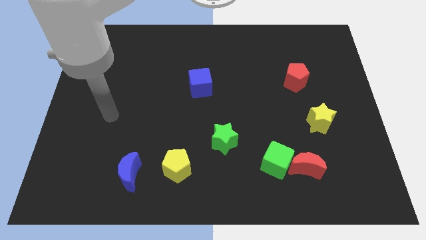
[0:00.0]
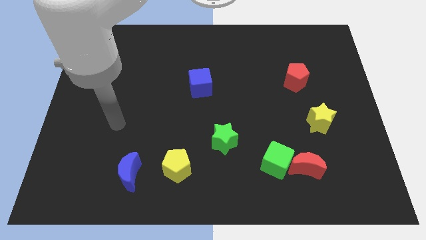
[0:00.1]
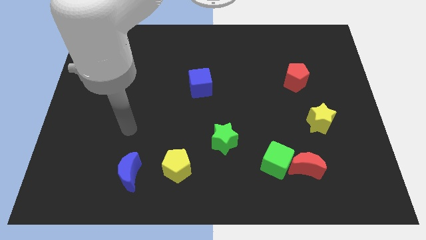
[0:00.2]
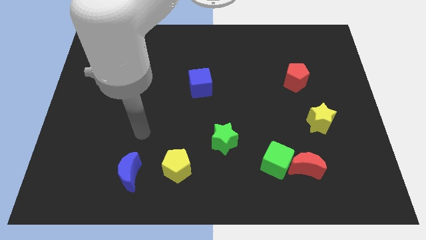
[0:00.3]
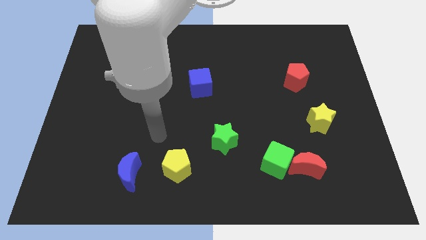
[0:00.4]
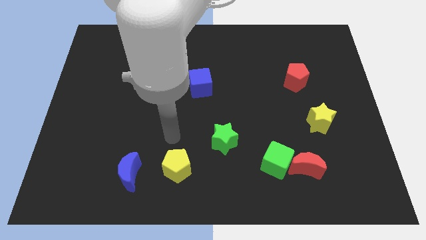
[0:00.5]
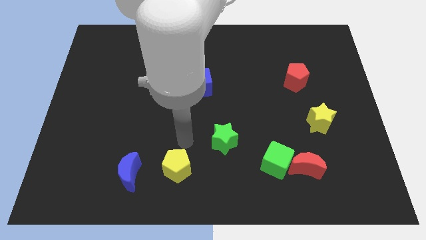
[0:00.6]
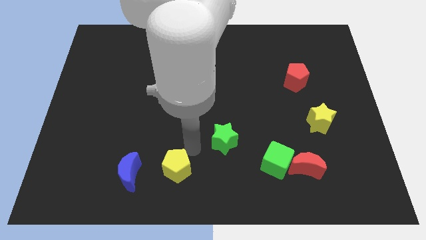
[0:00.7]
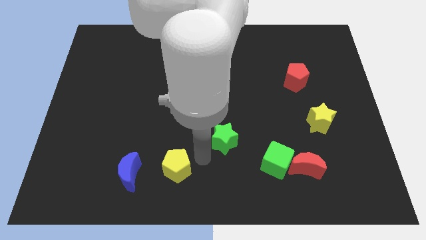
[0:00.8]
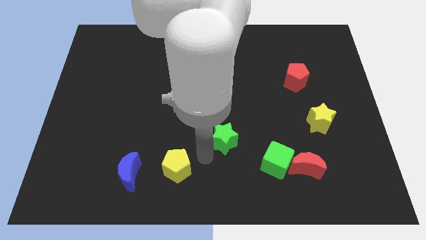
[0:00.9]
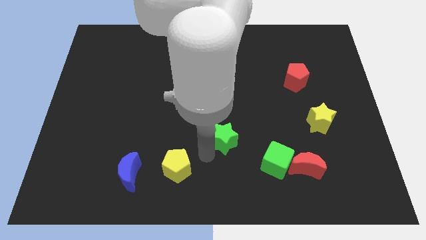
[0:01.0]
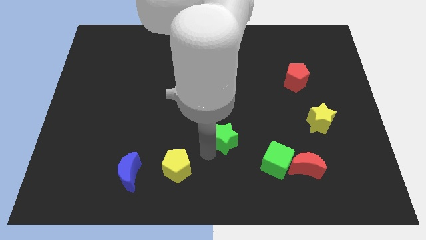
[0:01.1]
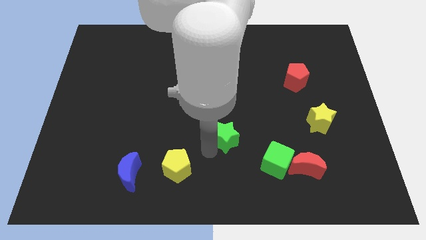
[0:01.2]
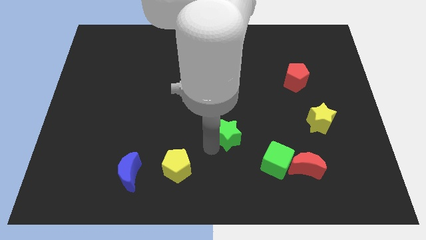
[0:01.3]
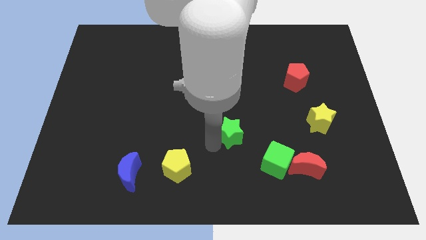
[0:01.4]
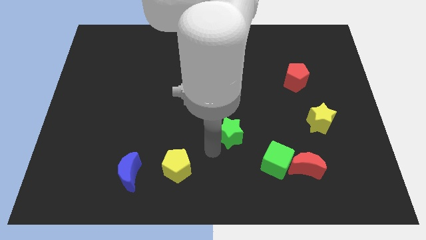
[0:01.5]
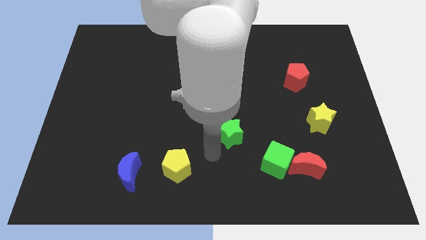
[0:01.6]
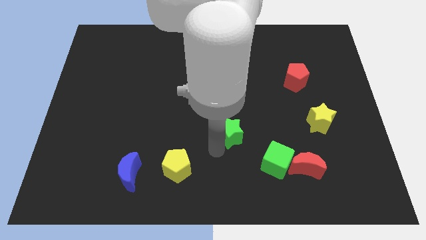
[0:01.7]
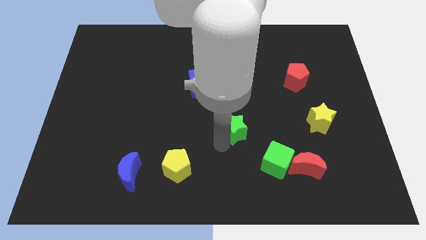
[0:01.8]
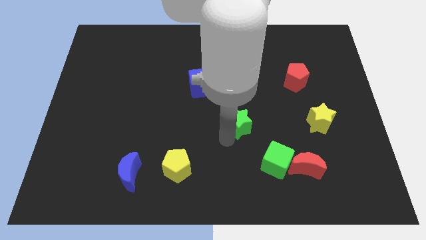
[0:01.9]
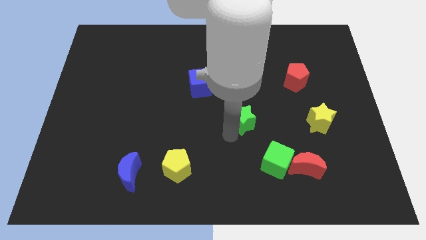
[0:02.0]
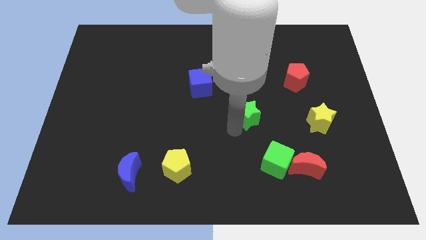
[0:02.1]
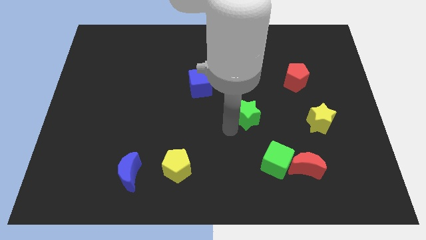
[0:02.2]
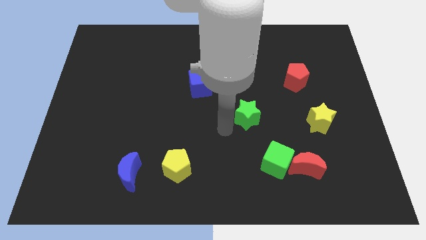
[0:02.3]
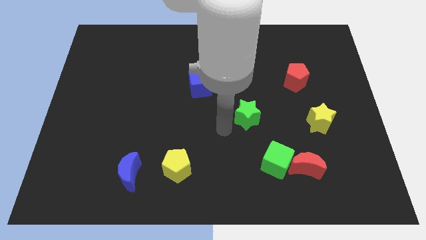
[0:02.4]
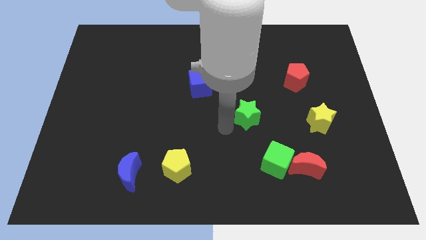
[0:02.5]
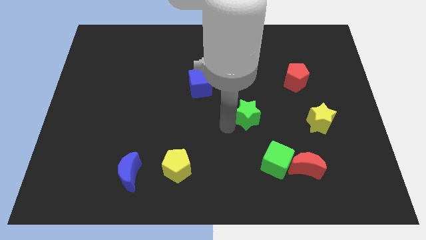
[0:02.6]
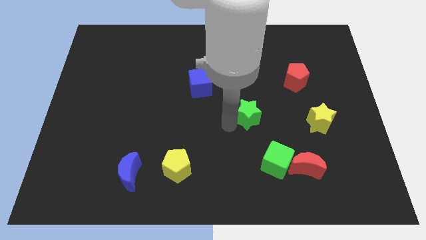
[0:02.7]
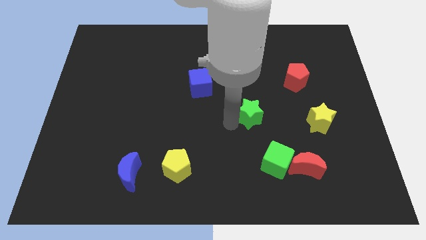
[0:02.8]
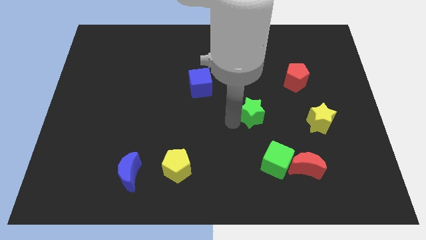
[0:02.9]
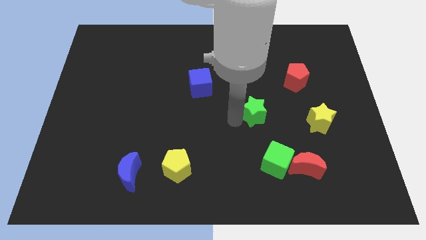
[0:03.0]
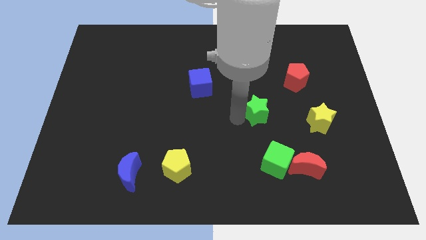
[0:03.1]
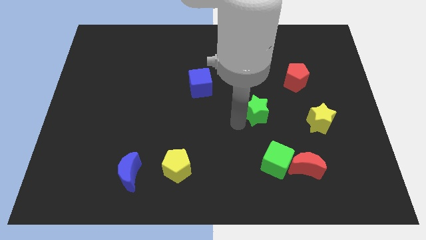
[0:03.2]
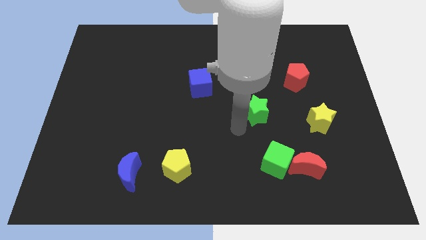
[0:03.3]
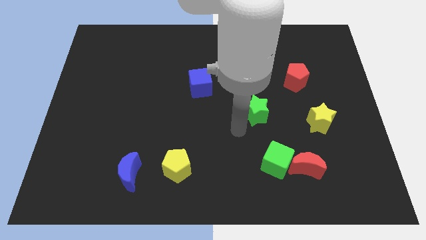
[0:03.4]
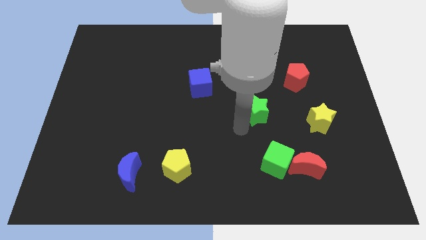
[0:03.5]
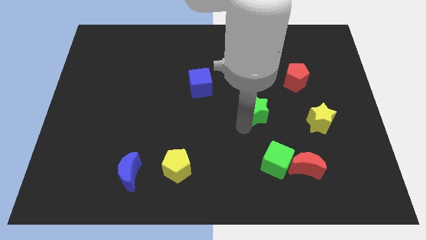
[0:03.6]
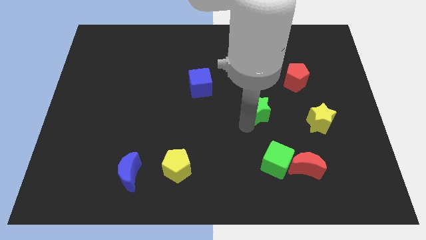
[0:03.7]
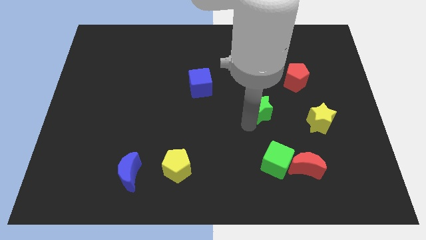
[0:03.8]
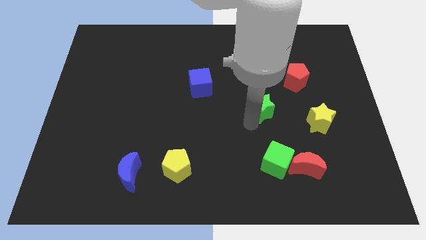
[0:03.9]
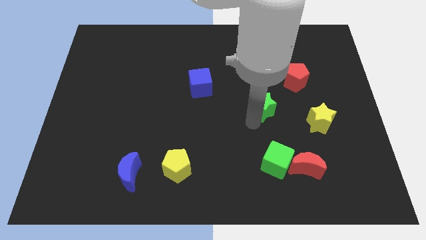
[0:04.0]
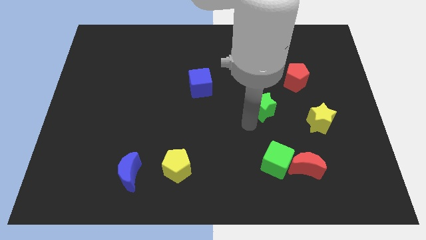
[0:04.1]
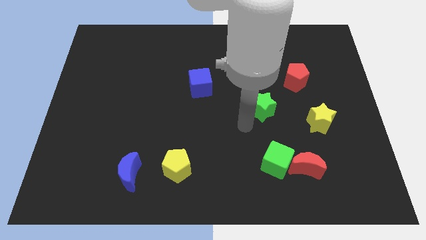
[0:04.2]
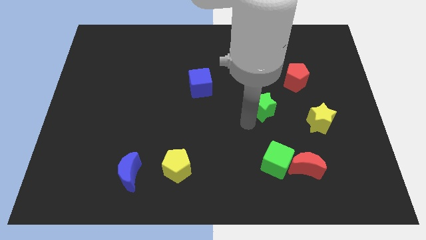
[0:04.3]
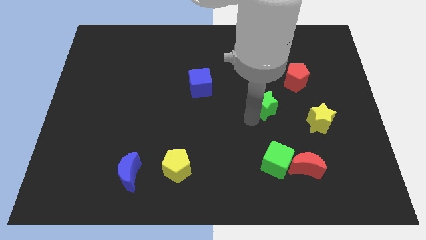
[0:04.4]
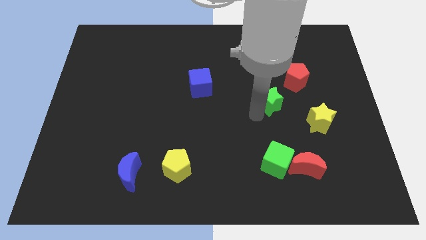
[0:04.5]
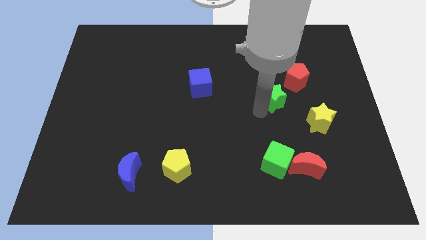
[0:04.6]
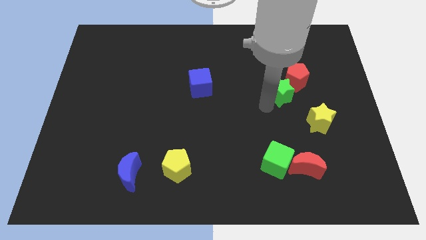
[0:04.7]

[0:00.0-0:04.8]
put the green star to the red pentagon

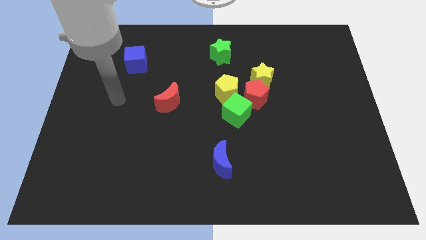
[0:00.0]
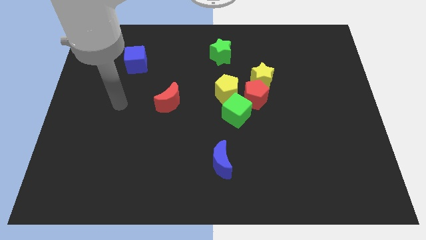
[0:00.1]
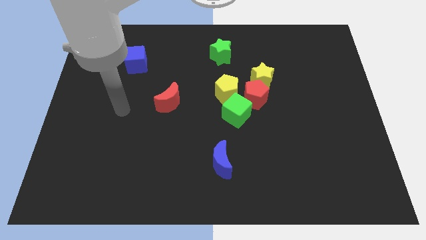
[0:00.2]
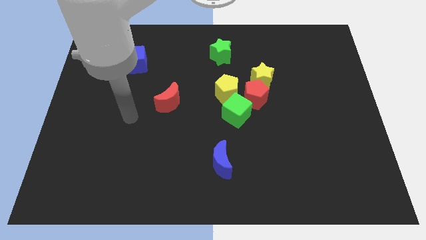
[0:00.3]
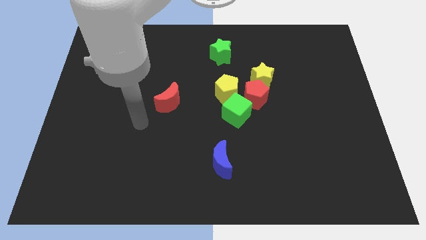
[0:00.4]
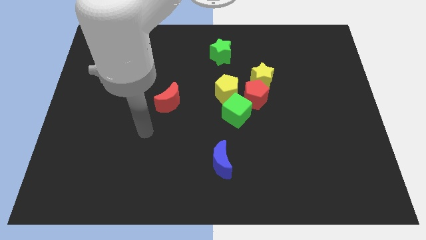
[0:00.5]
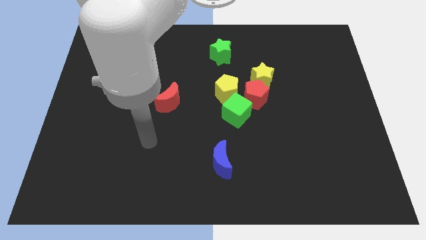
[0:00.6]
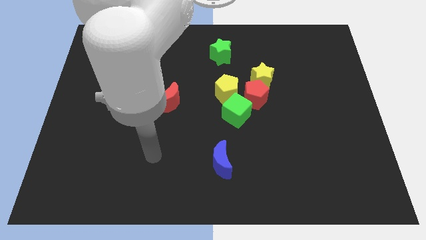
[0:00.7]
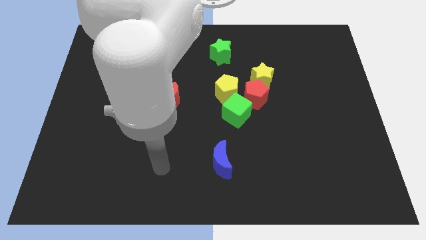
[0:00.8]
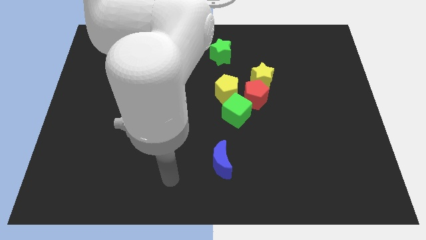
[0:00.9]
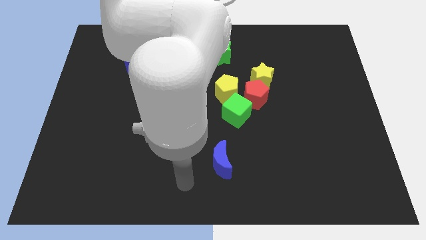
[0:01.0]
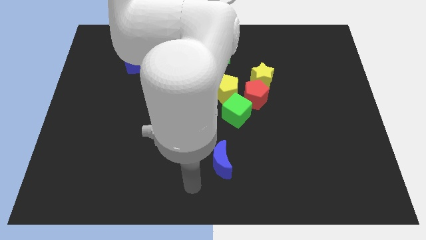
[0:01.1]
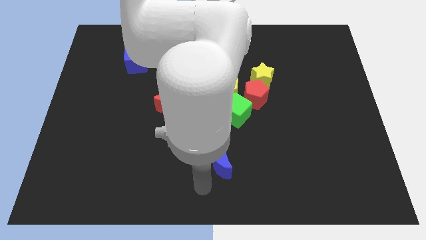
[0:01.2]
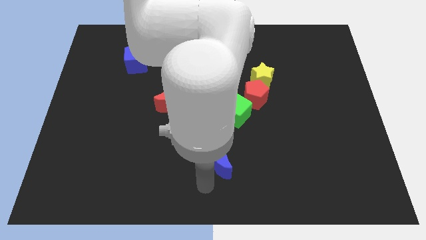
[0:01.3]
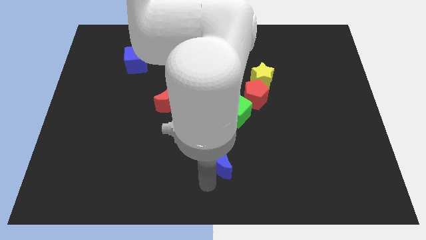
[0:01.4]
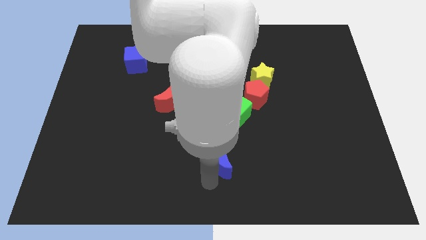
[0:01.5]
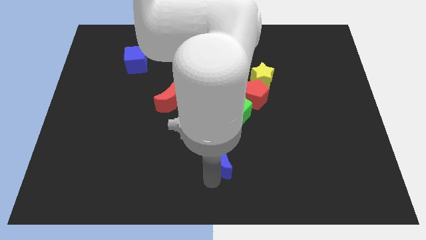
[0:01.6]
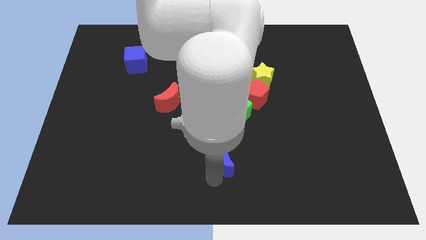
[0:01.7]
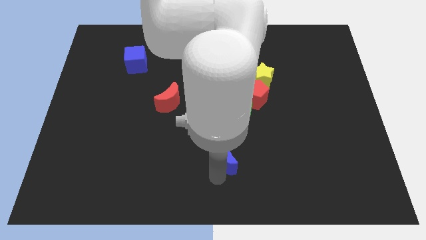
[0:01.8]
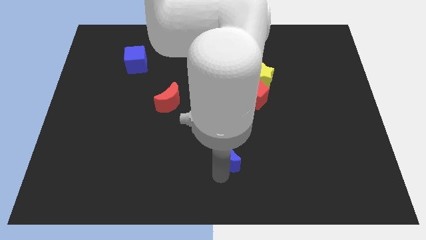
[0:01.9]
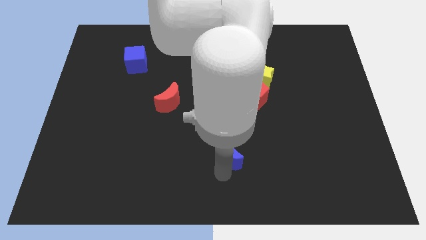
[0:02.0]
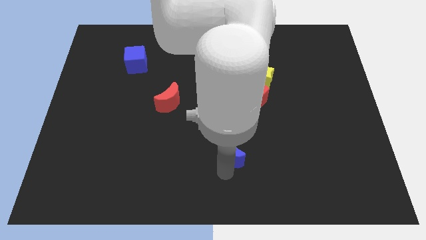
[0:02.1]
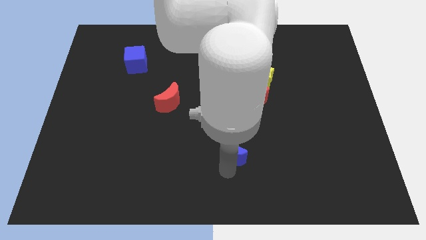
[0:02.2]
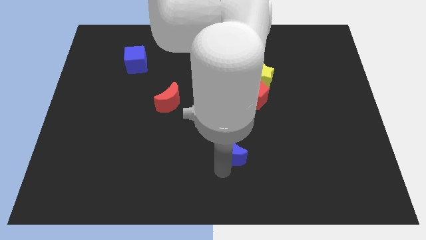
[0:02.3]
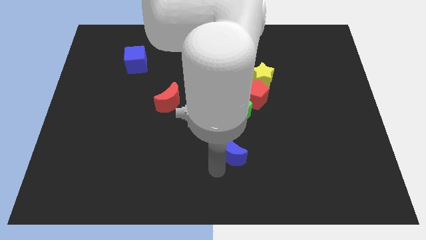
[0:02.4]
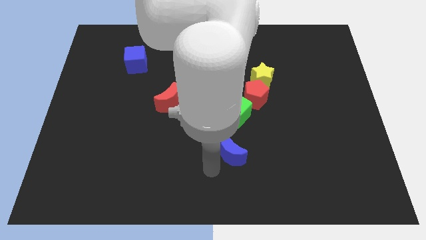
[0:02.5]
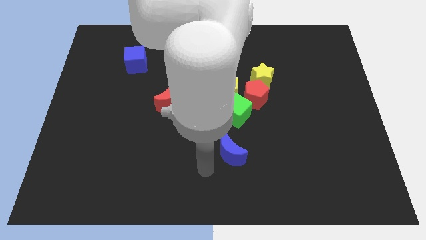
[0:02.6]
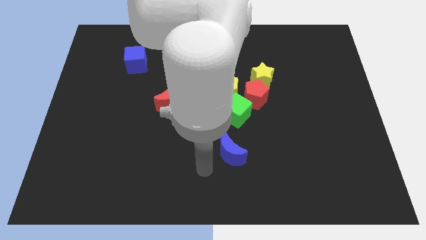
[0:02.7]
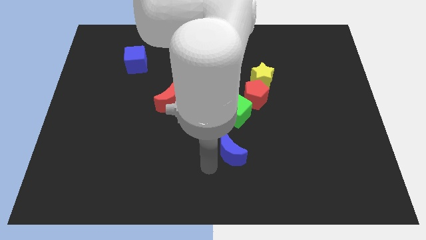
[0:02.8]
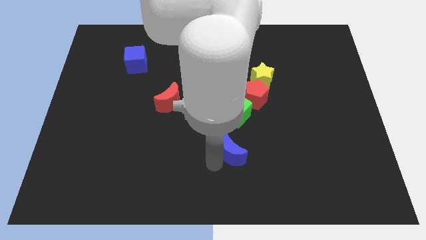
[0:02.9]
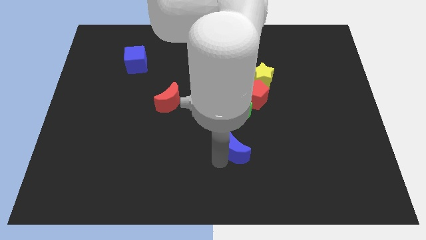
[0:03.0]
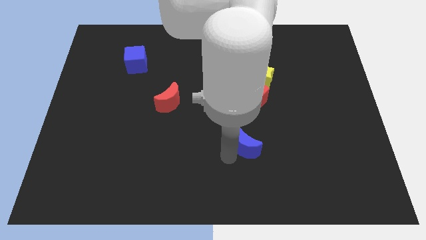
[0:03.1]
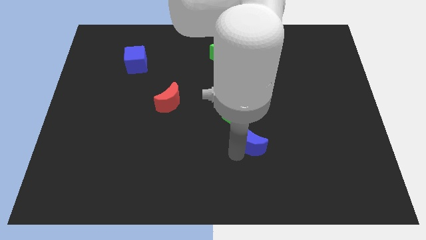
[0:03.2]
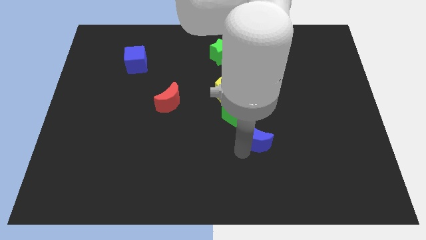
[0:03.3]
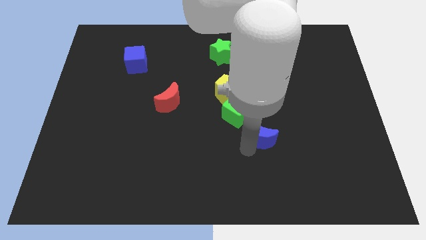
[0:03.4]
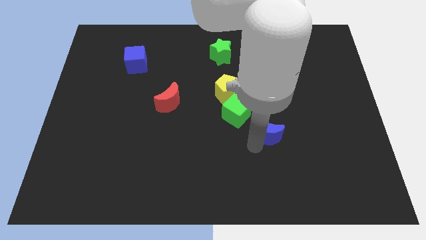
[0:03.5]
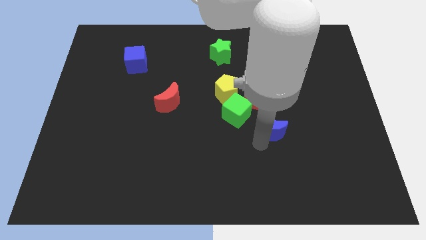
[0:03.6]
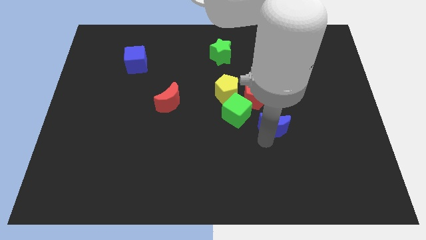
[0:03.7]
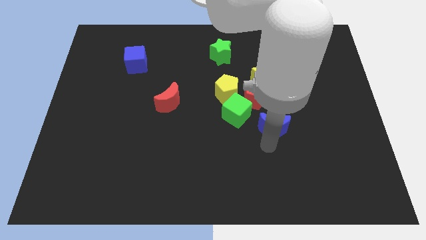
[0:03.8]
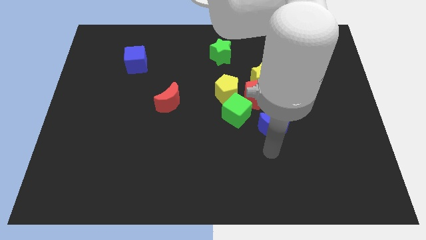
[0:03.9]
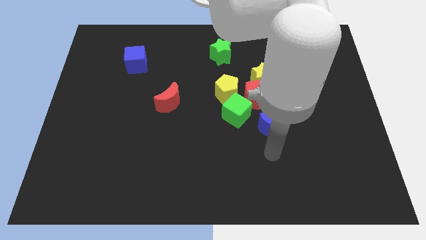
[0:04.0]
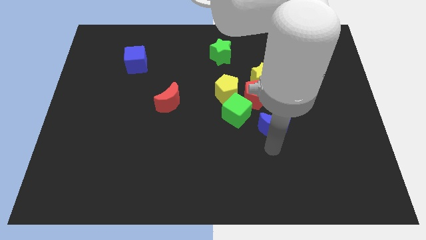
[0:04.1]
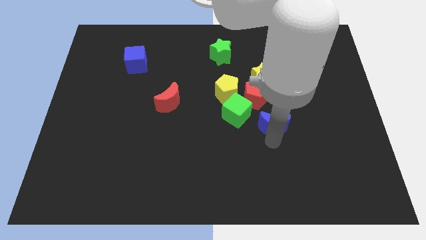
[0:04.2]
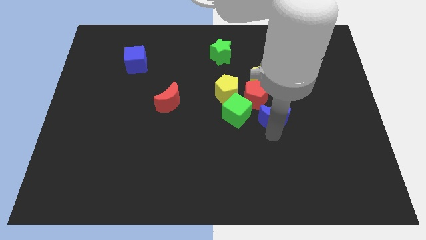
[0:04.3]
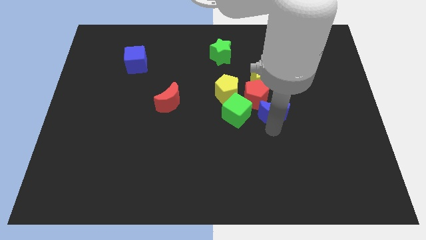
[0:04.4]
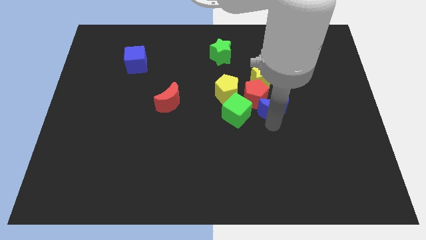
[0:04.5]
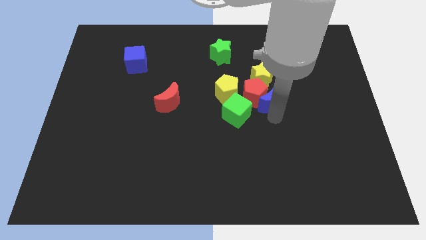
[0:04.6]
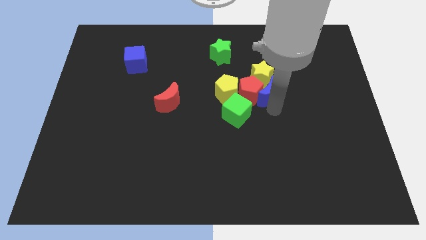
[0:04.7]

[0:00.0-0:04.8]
slide the blue moon towards the yellow star
